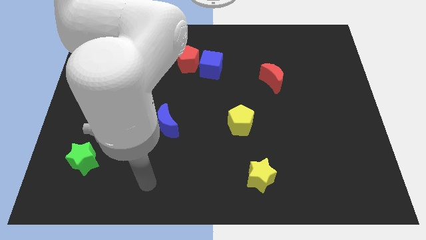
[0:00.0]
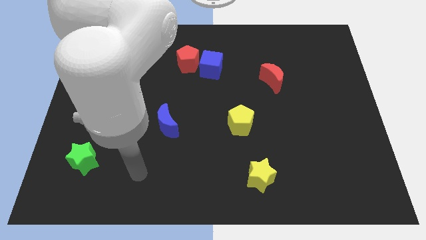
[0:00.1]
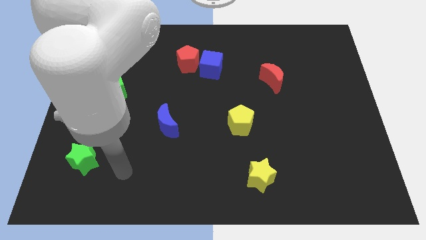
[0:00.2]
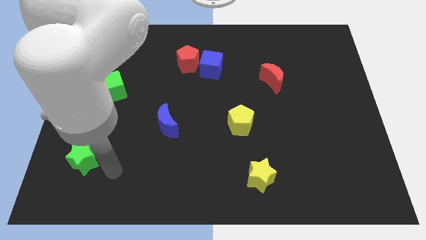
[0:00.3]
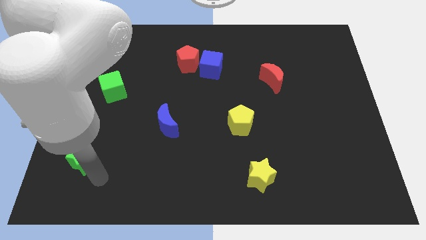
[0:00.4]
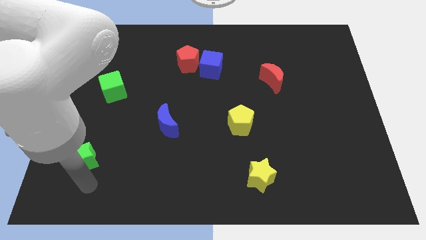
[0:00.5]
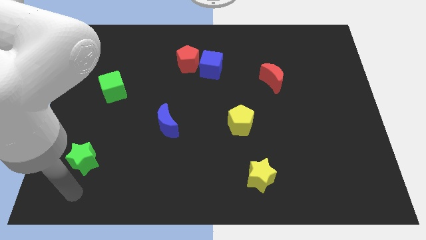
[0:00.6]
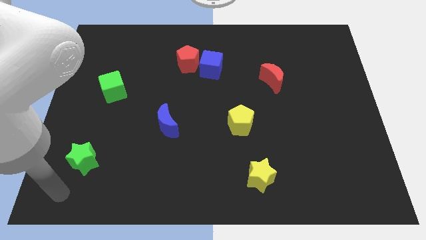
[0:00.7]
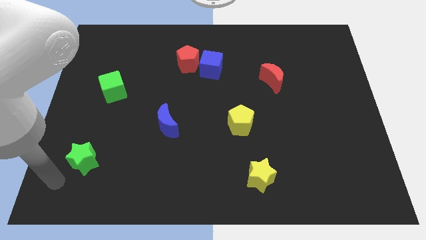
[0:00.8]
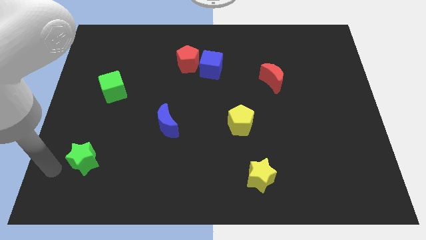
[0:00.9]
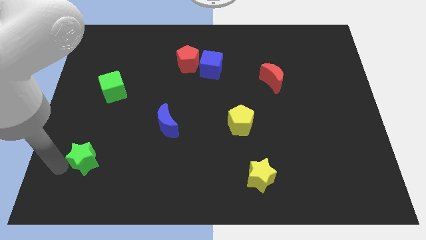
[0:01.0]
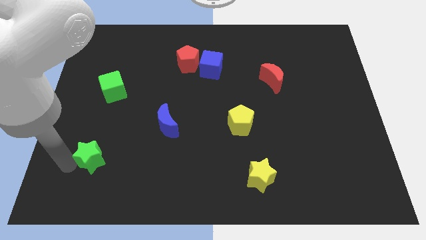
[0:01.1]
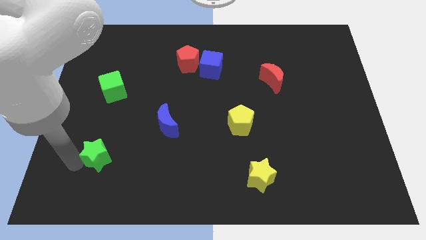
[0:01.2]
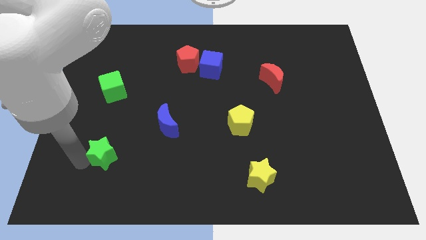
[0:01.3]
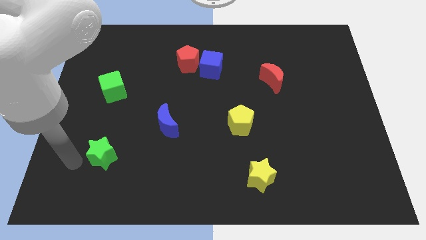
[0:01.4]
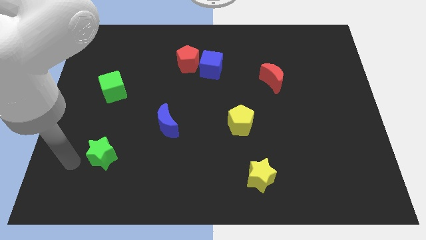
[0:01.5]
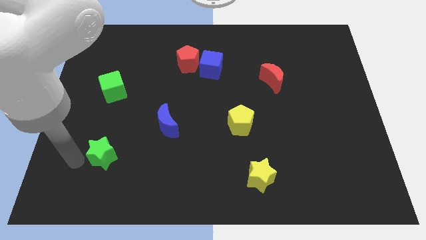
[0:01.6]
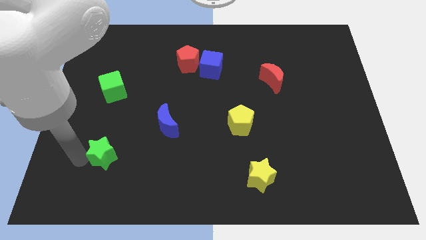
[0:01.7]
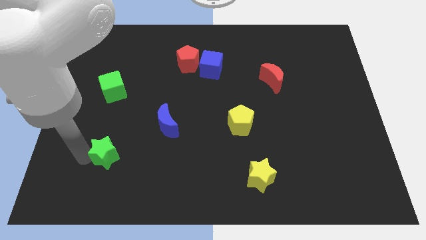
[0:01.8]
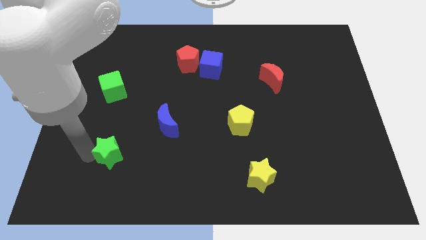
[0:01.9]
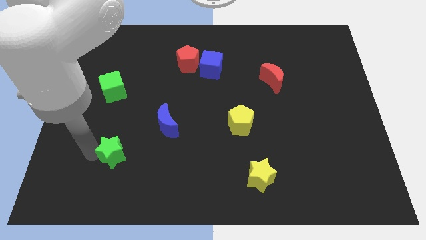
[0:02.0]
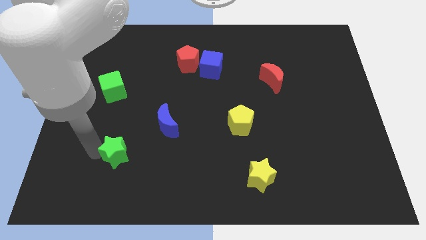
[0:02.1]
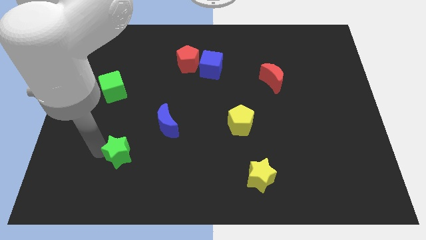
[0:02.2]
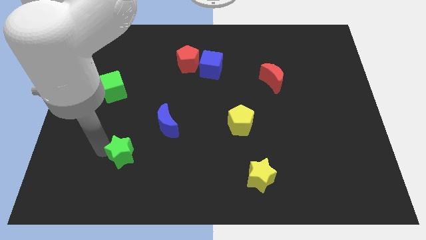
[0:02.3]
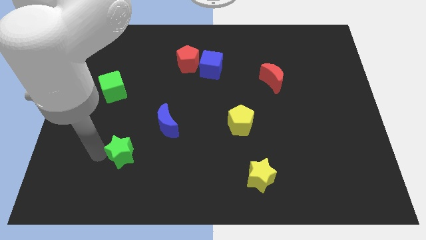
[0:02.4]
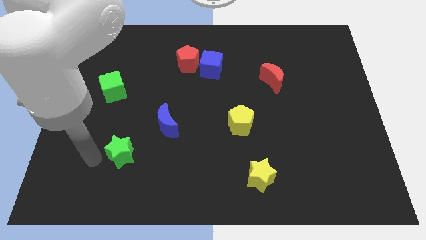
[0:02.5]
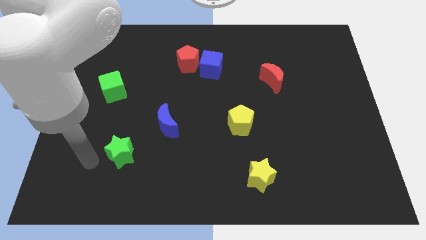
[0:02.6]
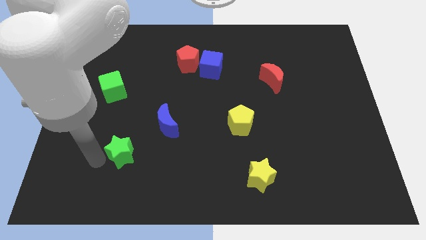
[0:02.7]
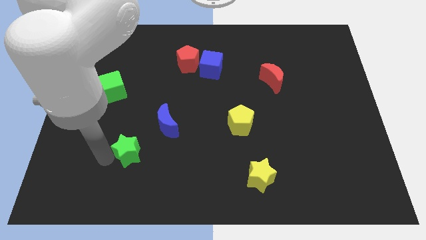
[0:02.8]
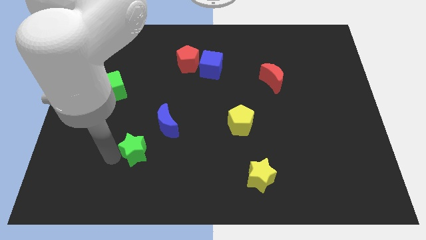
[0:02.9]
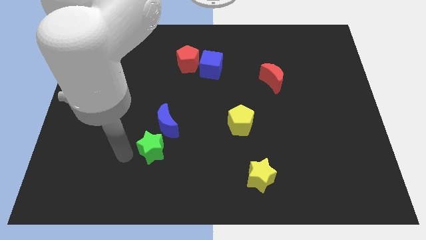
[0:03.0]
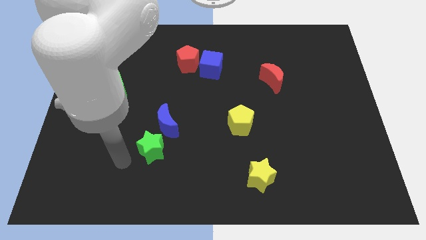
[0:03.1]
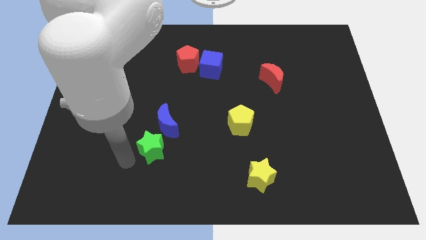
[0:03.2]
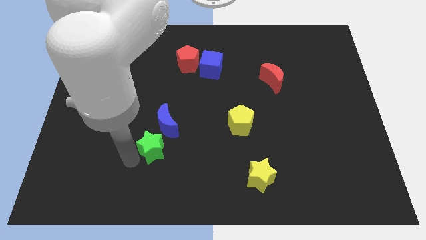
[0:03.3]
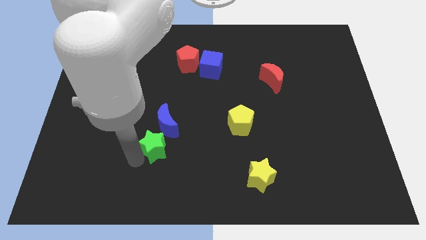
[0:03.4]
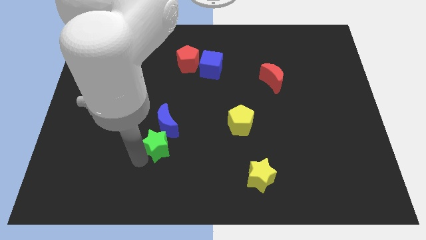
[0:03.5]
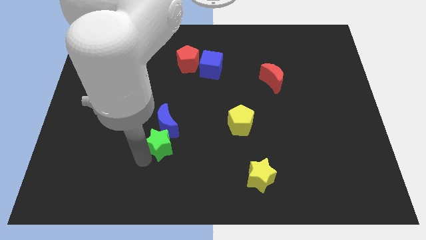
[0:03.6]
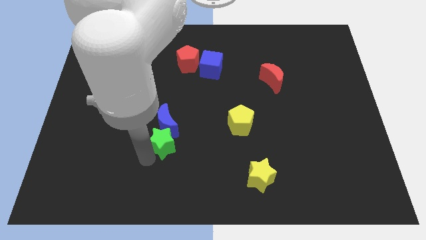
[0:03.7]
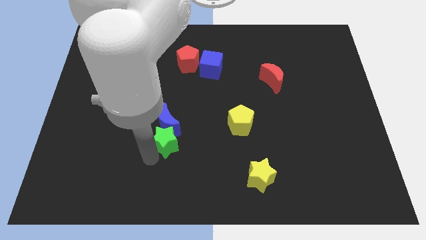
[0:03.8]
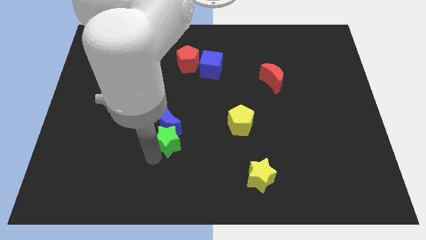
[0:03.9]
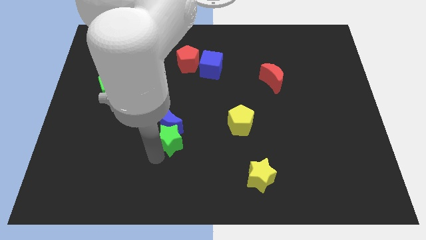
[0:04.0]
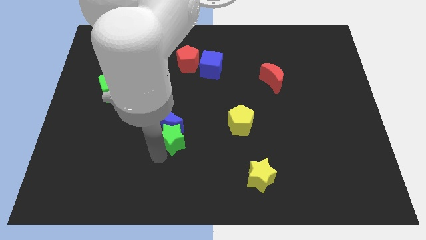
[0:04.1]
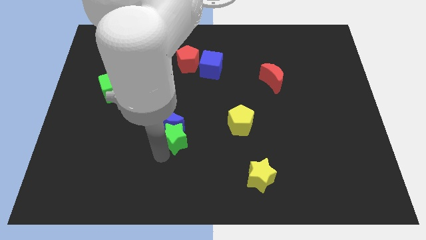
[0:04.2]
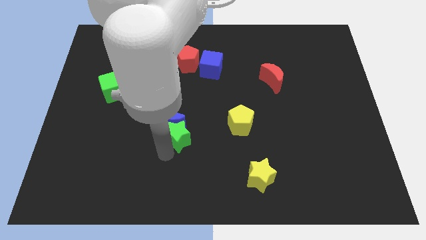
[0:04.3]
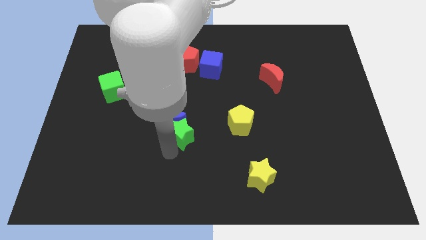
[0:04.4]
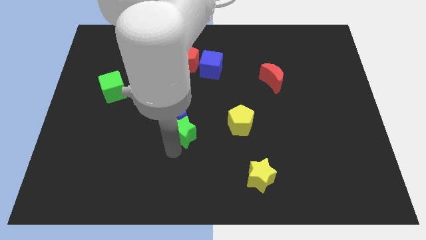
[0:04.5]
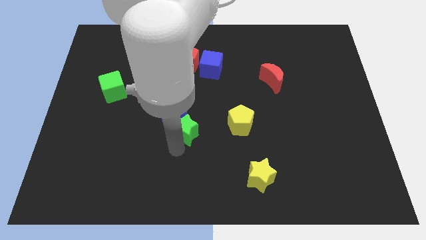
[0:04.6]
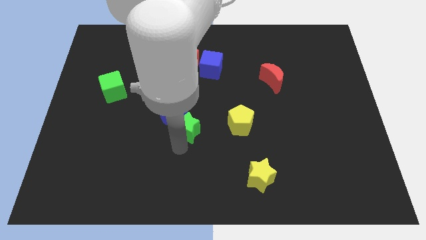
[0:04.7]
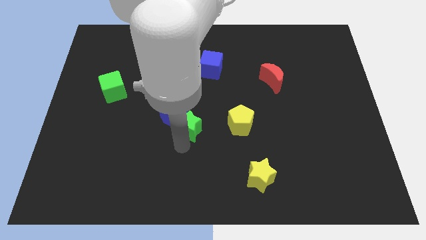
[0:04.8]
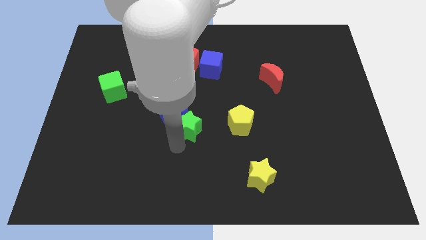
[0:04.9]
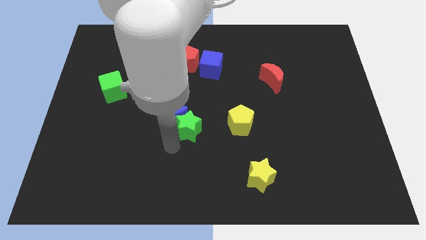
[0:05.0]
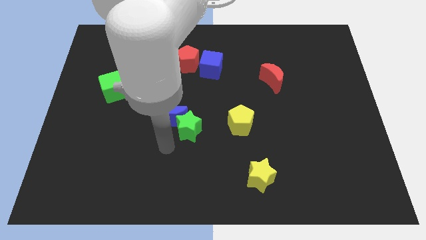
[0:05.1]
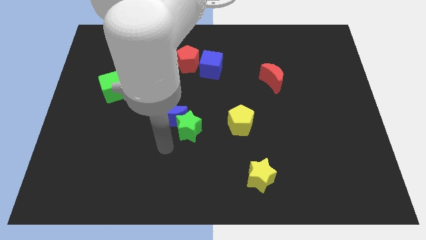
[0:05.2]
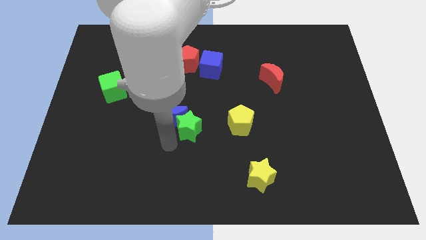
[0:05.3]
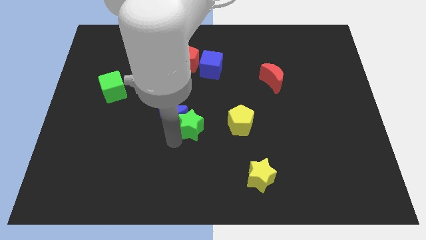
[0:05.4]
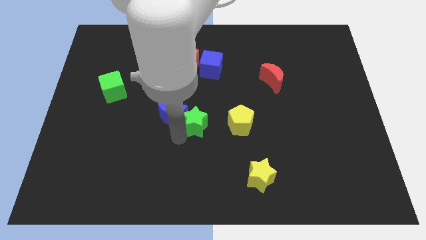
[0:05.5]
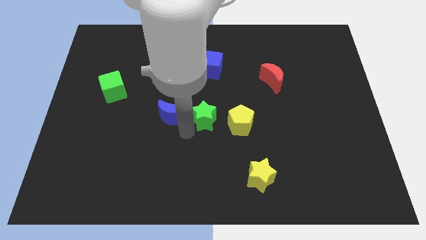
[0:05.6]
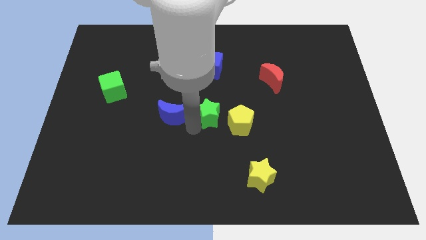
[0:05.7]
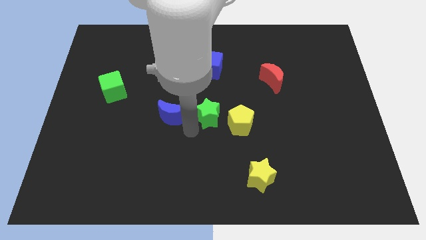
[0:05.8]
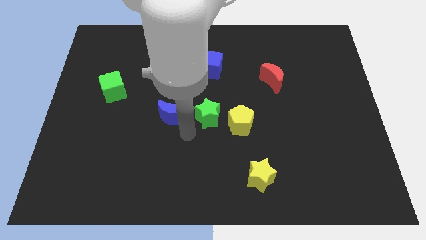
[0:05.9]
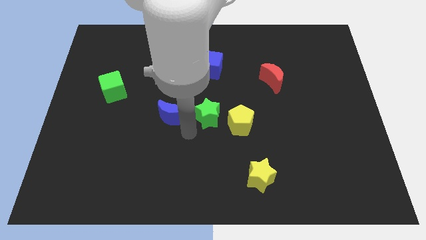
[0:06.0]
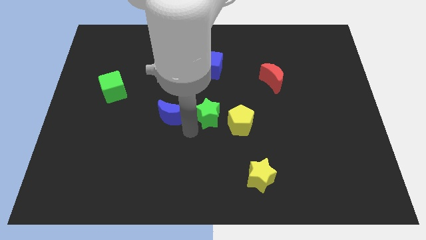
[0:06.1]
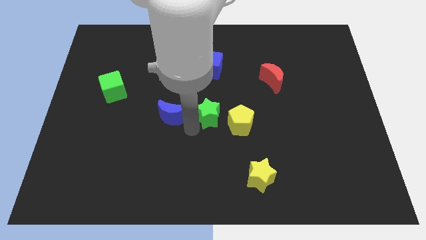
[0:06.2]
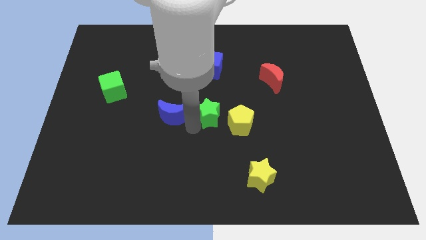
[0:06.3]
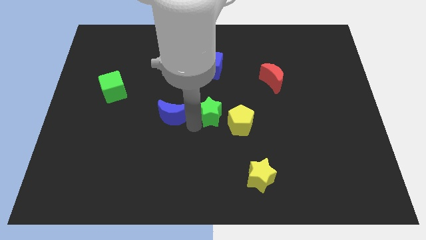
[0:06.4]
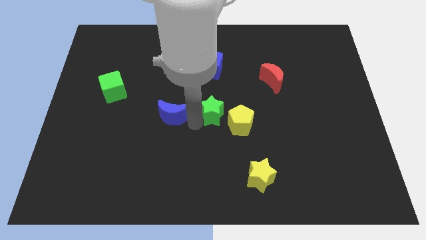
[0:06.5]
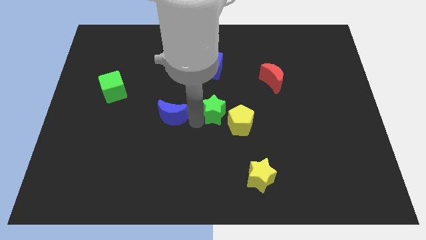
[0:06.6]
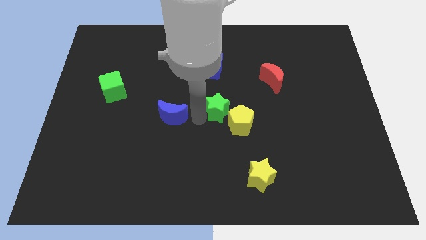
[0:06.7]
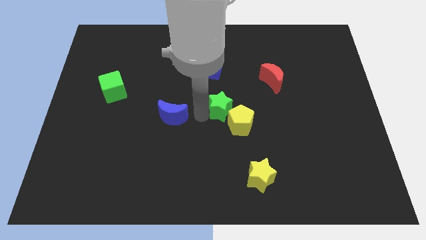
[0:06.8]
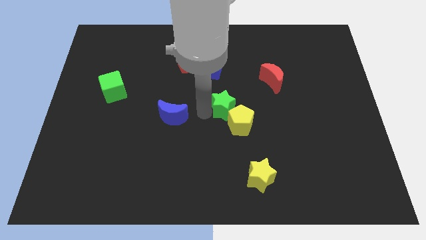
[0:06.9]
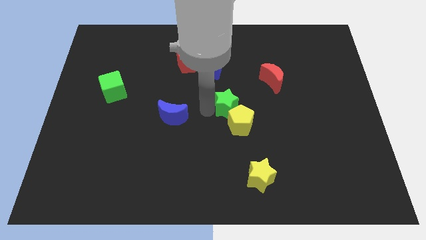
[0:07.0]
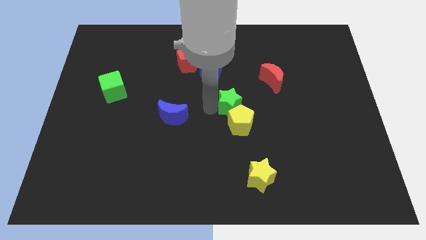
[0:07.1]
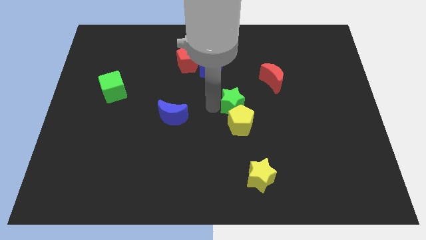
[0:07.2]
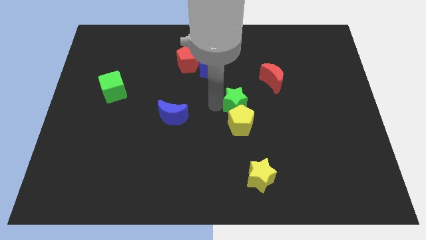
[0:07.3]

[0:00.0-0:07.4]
slide the green star to the bottom left of the red moon
